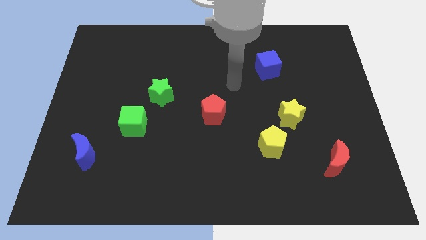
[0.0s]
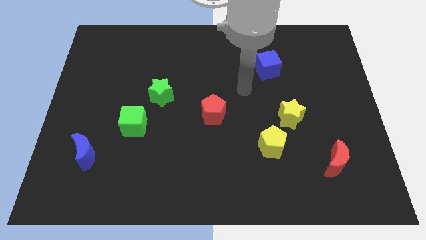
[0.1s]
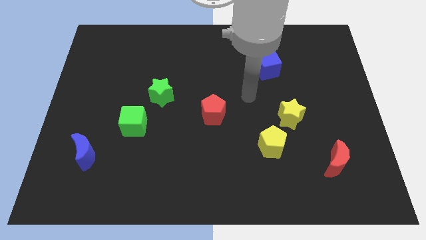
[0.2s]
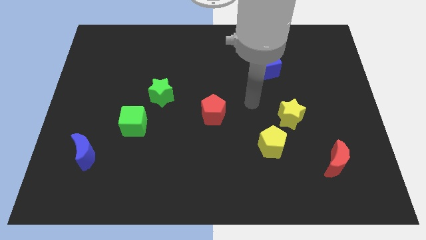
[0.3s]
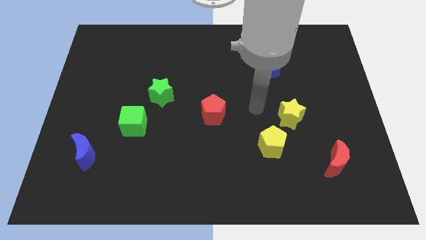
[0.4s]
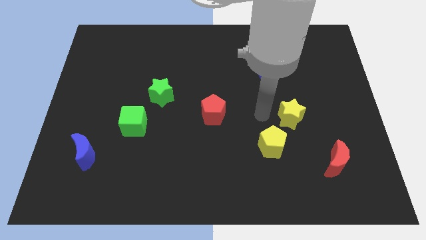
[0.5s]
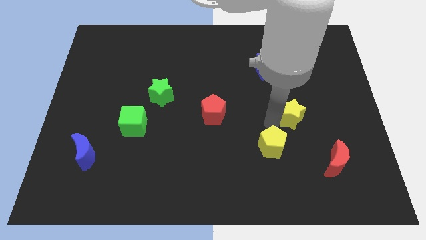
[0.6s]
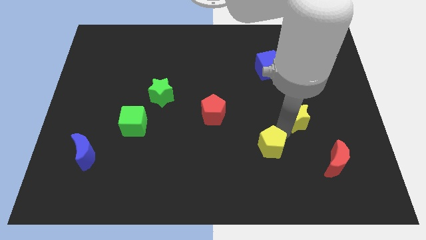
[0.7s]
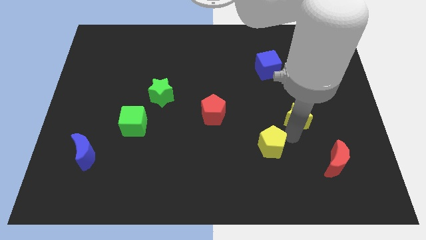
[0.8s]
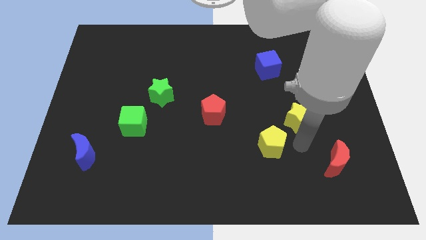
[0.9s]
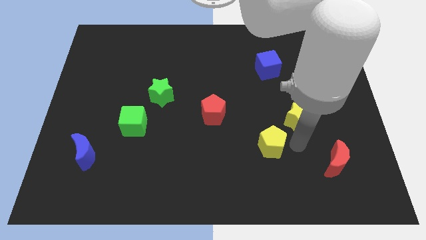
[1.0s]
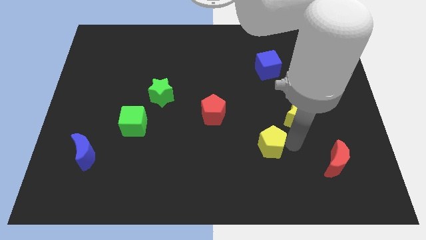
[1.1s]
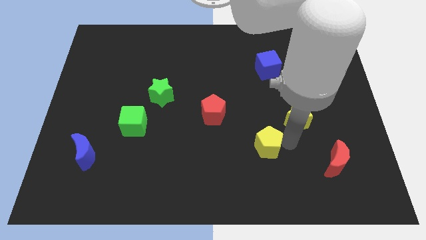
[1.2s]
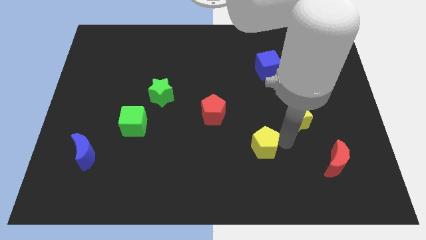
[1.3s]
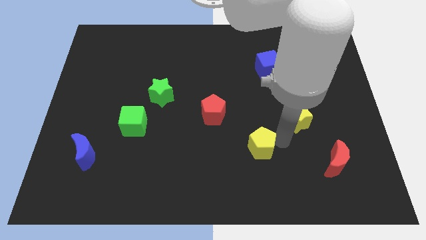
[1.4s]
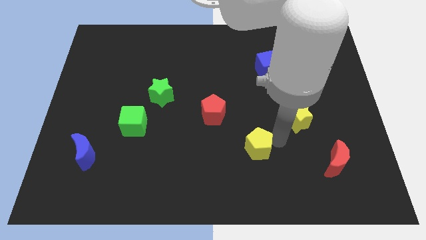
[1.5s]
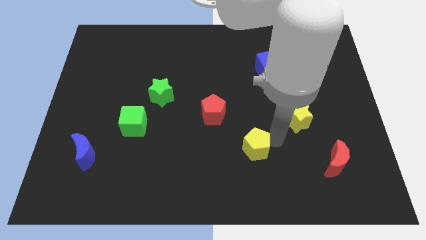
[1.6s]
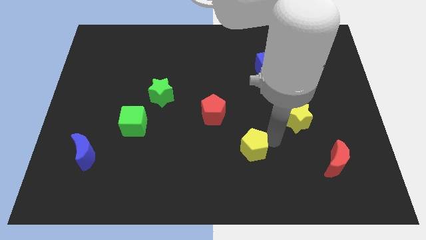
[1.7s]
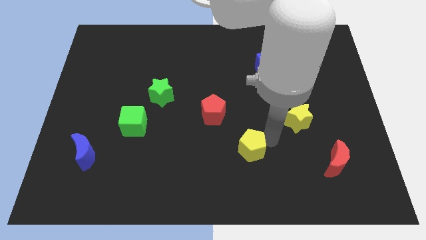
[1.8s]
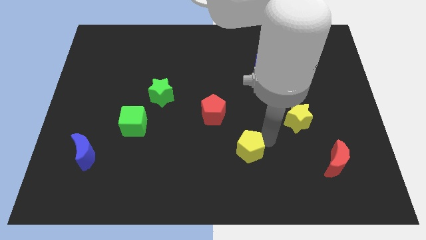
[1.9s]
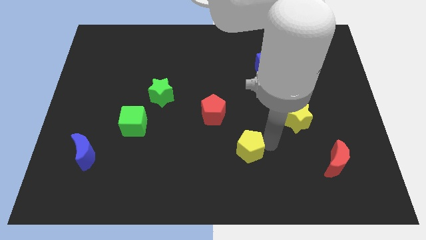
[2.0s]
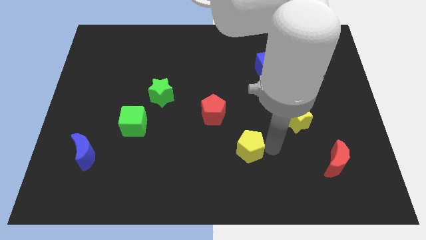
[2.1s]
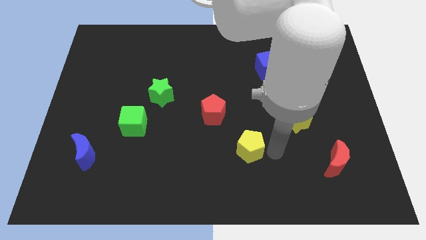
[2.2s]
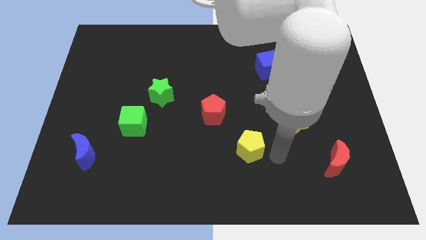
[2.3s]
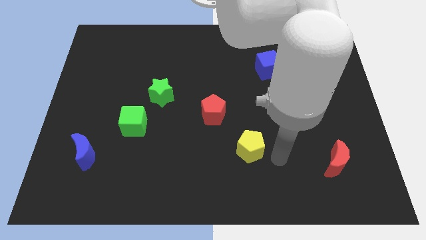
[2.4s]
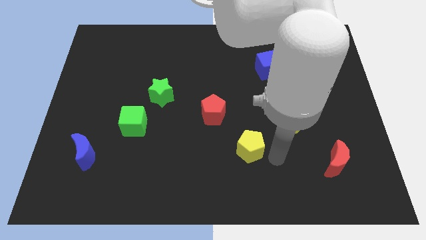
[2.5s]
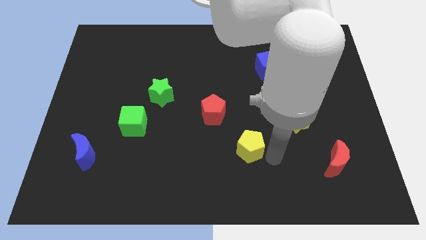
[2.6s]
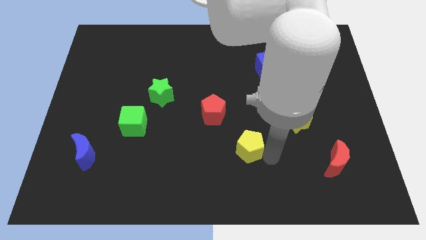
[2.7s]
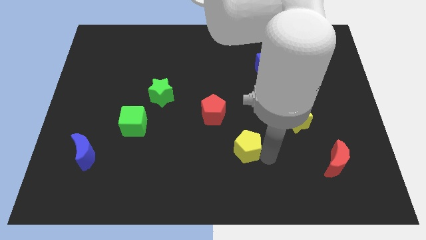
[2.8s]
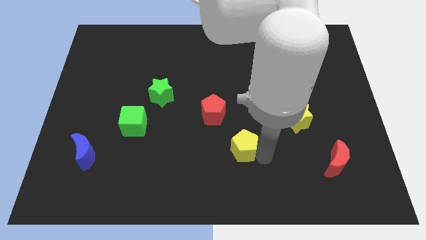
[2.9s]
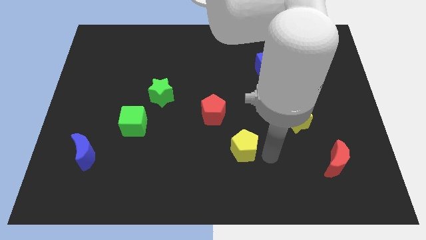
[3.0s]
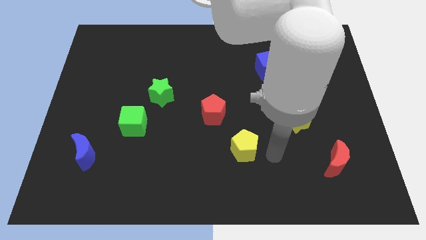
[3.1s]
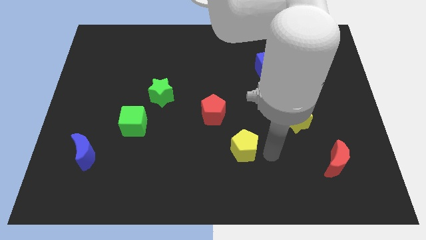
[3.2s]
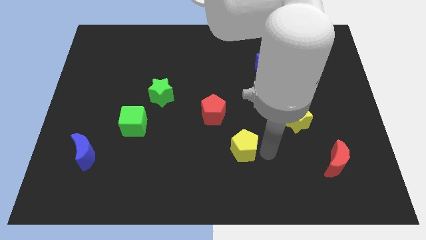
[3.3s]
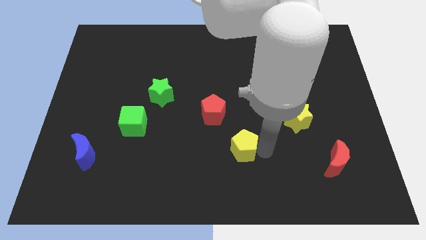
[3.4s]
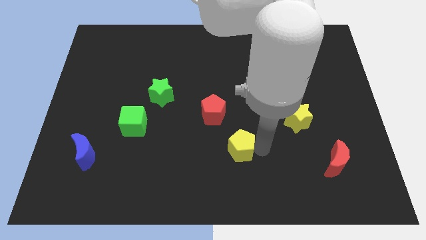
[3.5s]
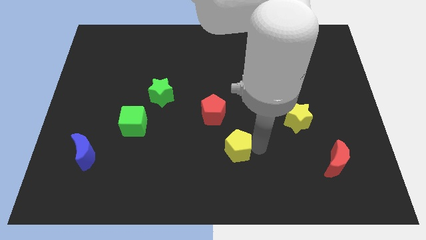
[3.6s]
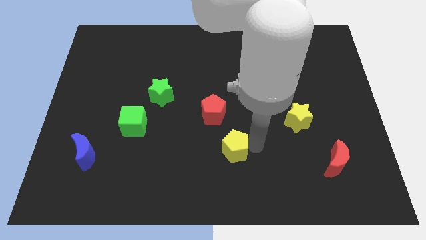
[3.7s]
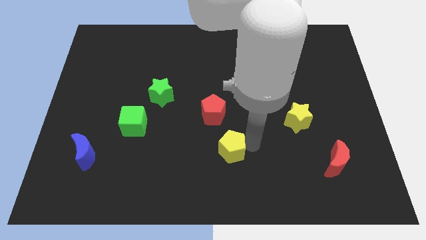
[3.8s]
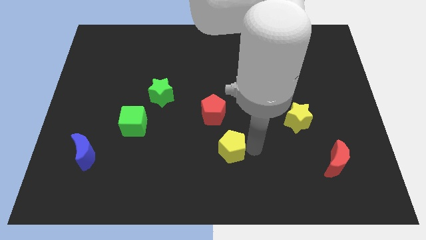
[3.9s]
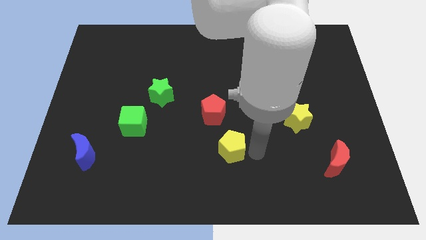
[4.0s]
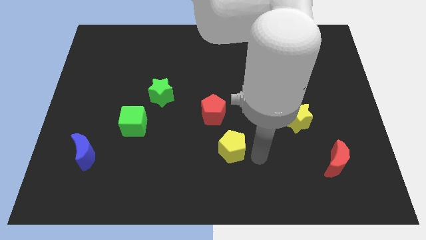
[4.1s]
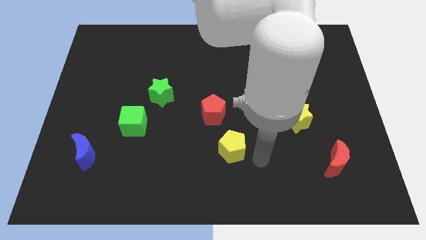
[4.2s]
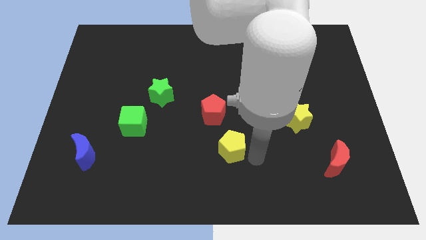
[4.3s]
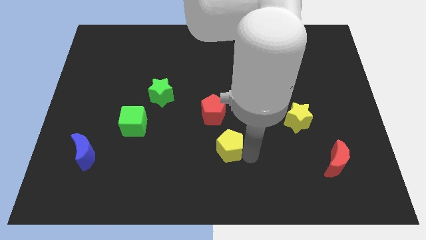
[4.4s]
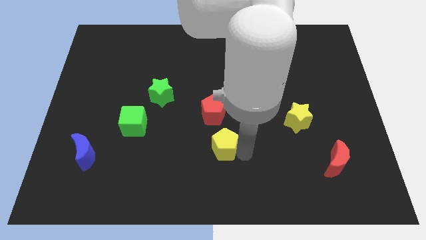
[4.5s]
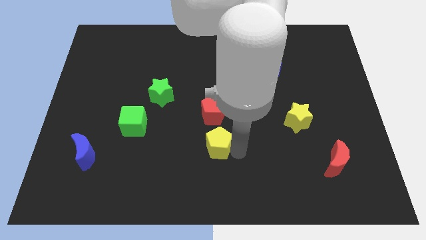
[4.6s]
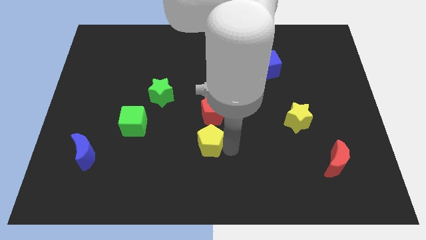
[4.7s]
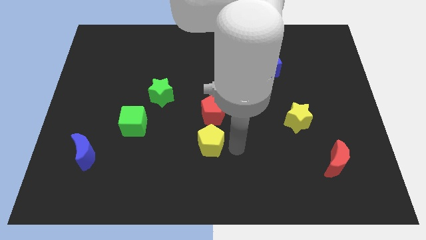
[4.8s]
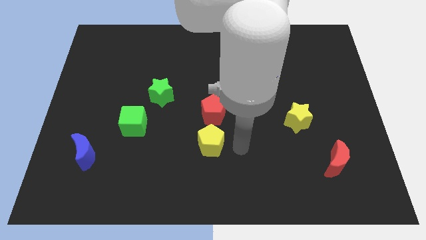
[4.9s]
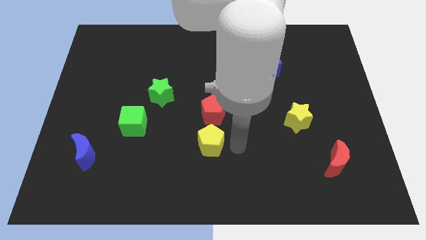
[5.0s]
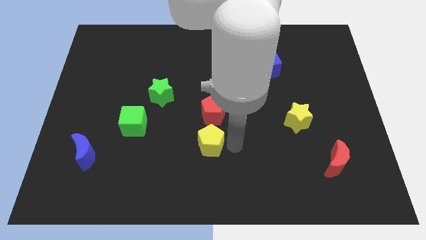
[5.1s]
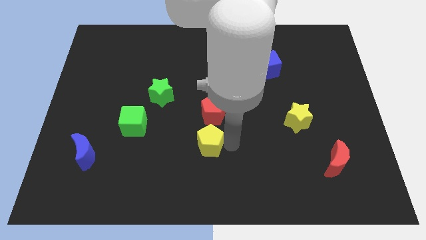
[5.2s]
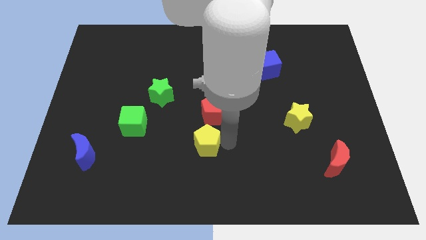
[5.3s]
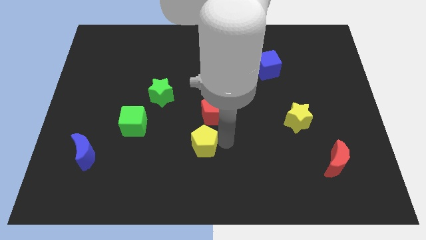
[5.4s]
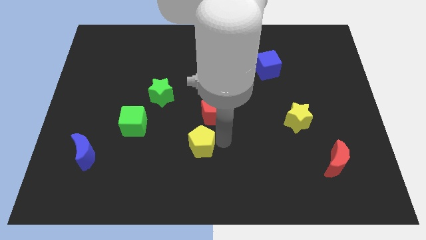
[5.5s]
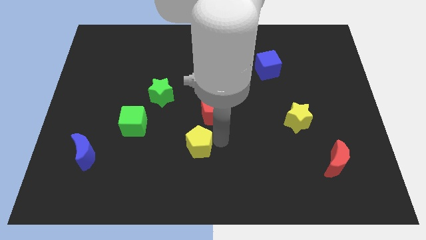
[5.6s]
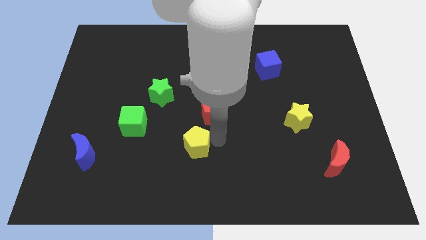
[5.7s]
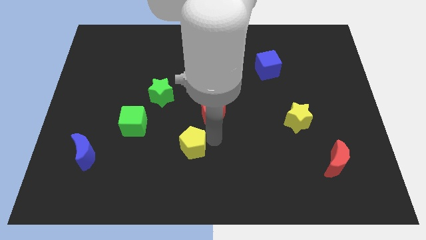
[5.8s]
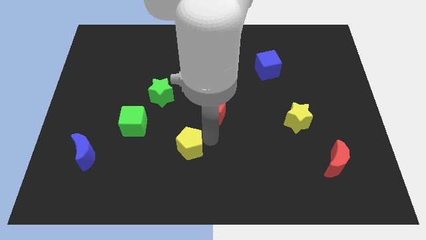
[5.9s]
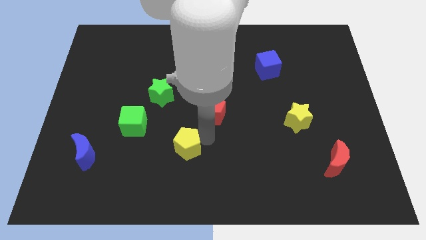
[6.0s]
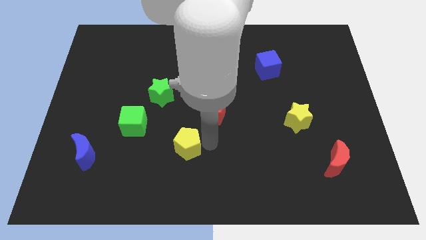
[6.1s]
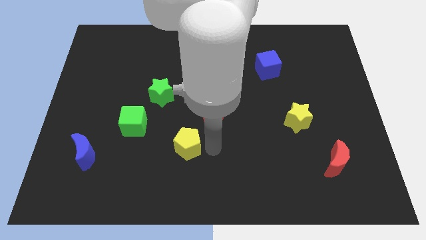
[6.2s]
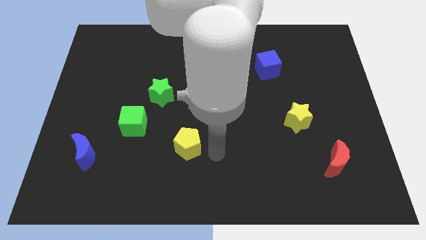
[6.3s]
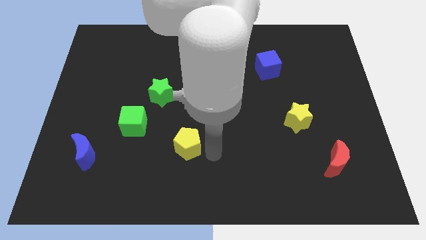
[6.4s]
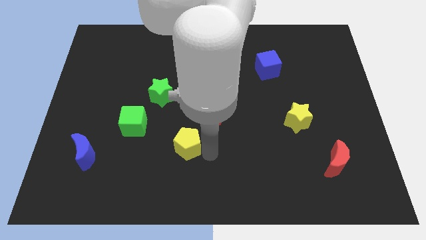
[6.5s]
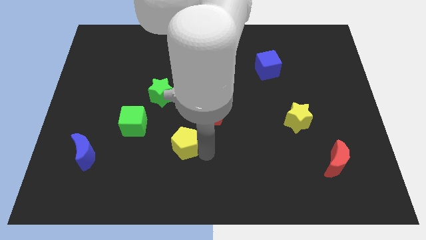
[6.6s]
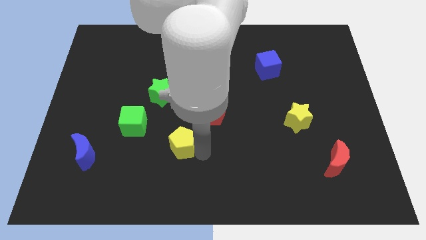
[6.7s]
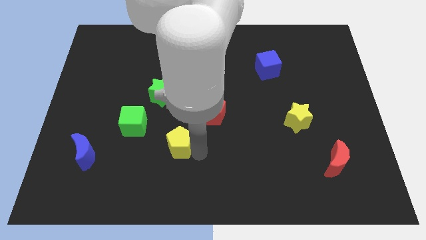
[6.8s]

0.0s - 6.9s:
slide the yellow pentagon left

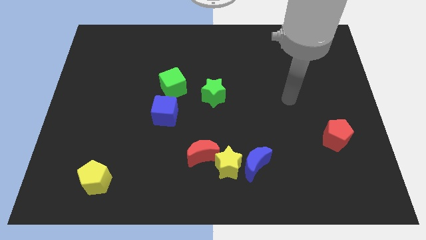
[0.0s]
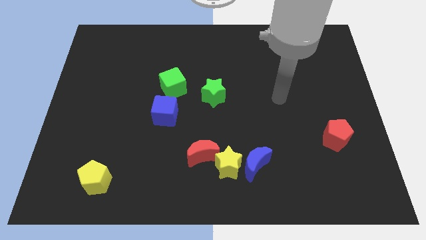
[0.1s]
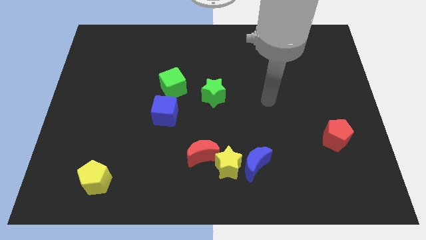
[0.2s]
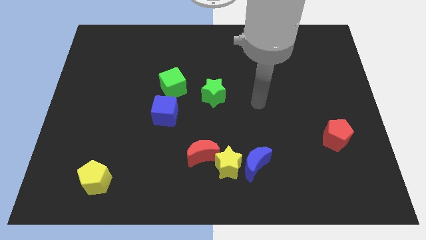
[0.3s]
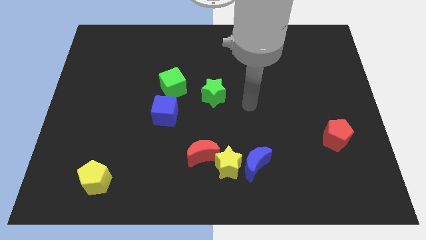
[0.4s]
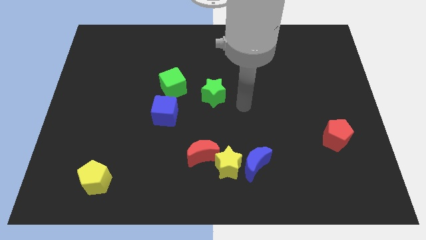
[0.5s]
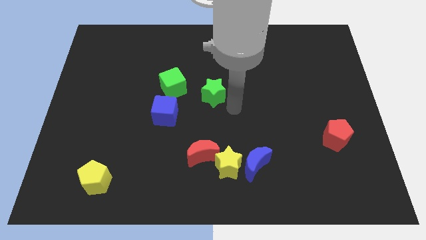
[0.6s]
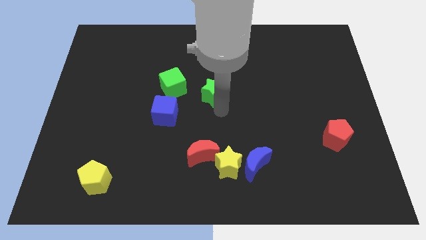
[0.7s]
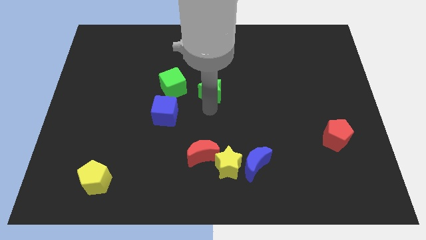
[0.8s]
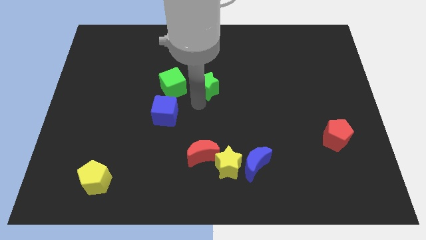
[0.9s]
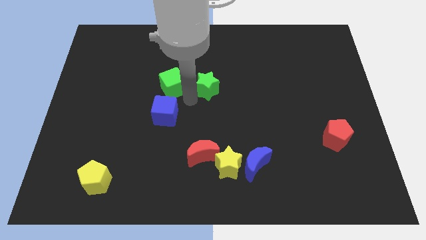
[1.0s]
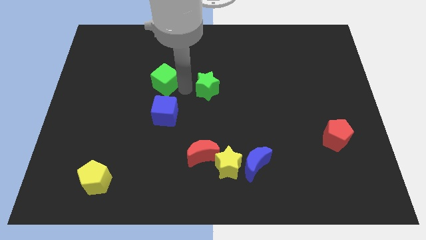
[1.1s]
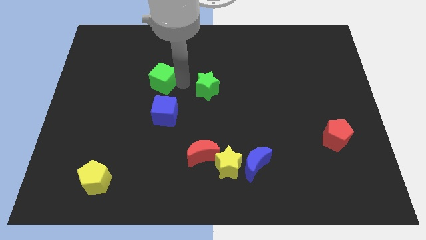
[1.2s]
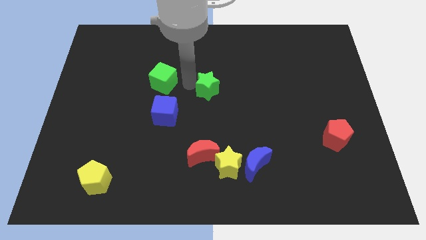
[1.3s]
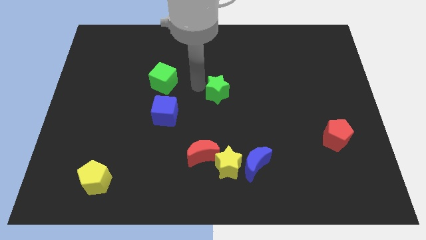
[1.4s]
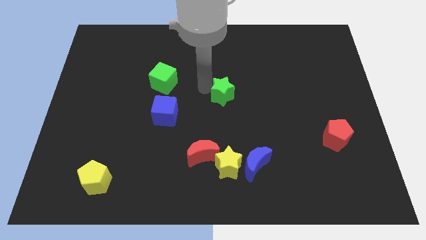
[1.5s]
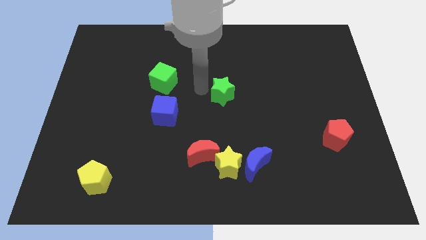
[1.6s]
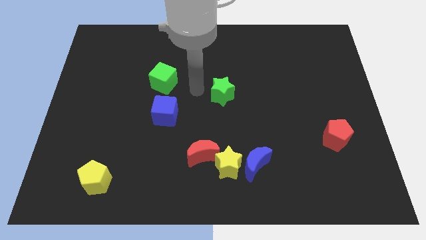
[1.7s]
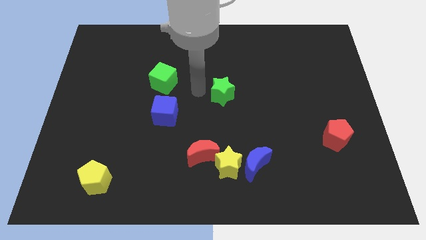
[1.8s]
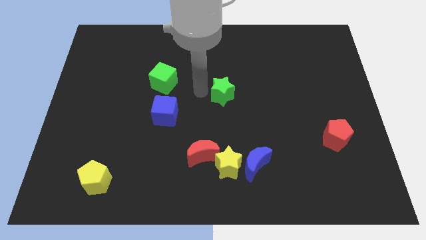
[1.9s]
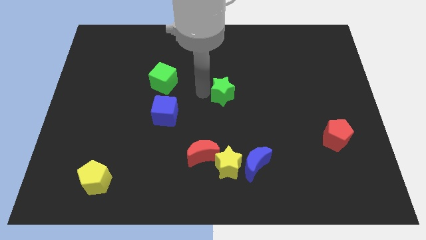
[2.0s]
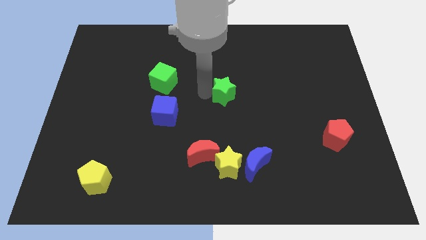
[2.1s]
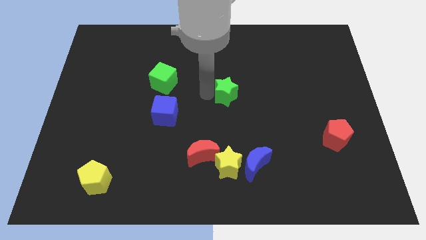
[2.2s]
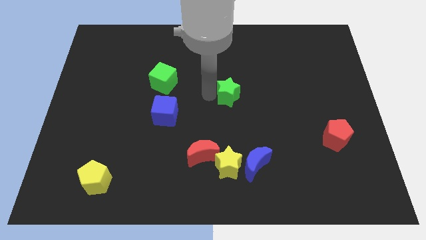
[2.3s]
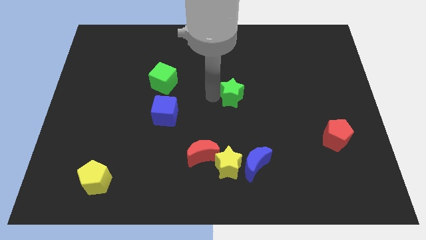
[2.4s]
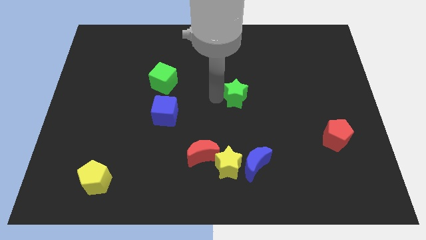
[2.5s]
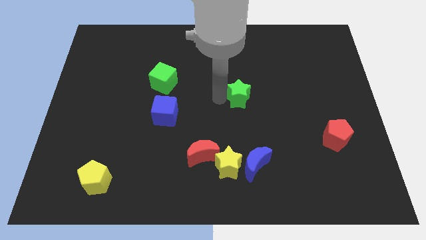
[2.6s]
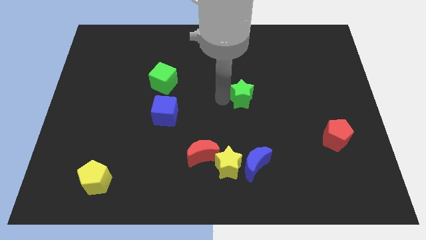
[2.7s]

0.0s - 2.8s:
move the green star to the right a bit
